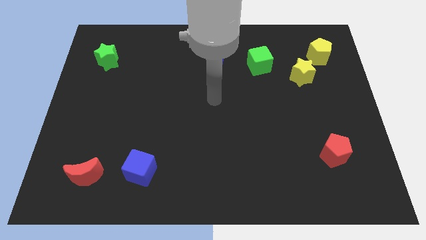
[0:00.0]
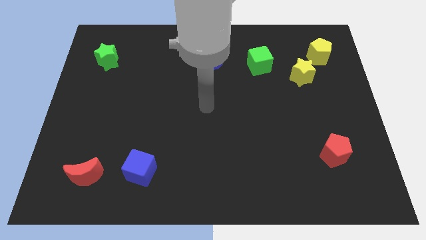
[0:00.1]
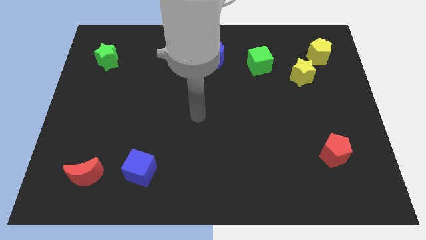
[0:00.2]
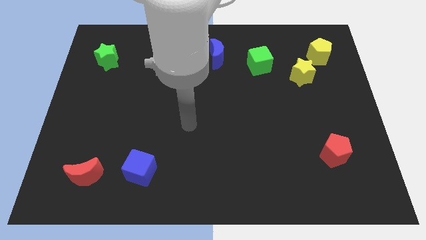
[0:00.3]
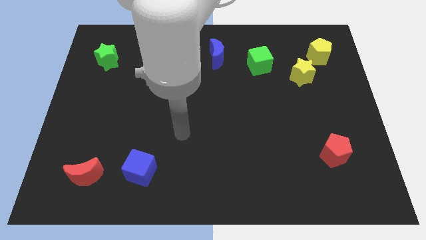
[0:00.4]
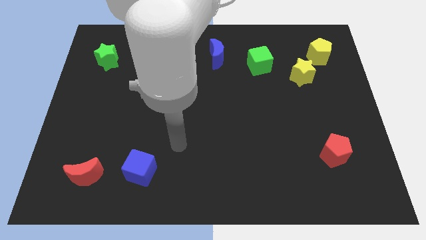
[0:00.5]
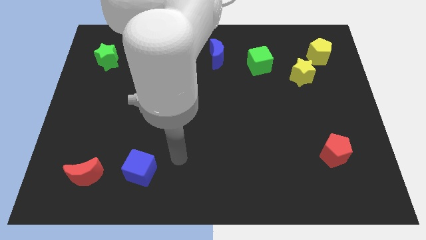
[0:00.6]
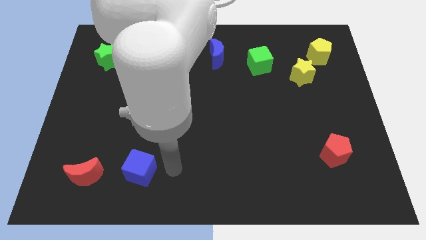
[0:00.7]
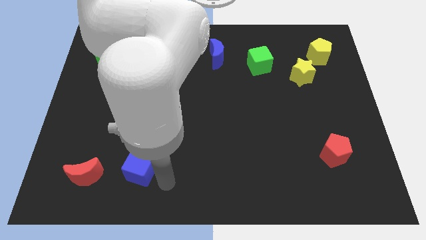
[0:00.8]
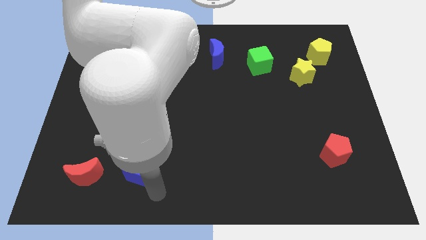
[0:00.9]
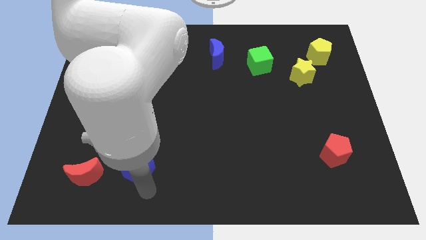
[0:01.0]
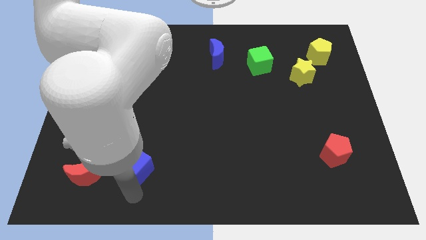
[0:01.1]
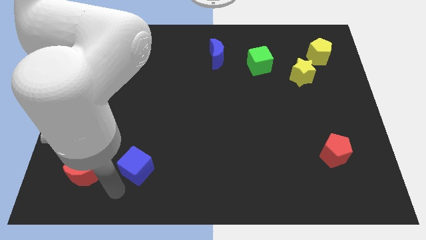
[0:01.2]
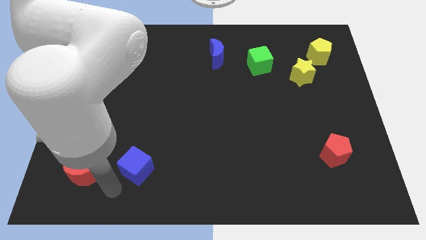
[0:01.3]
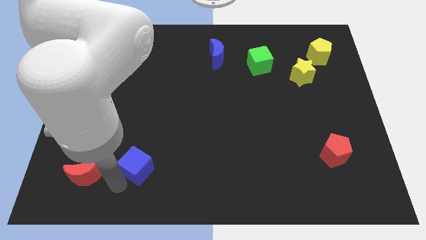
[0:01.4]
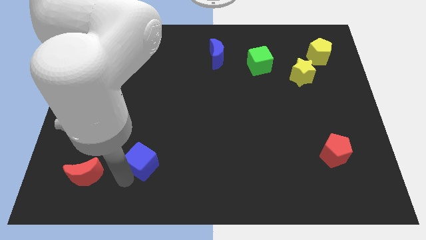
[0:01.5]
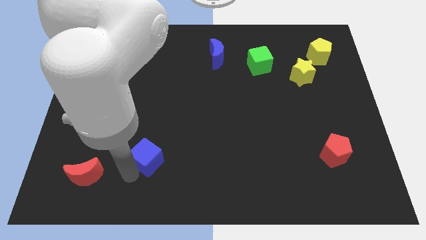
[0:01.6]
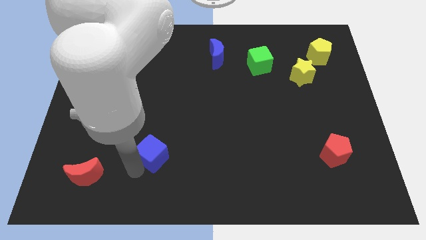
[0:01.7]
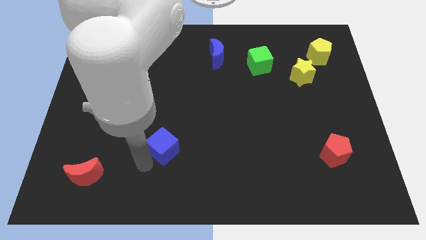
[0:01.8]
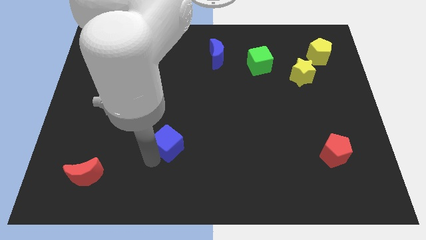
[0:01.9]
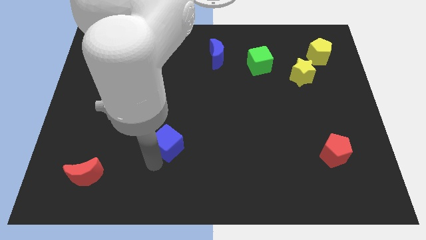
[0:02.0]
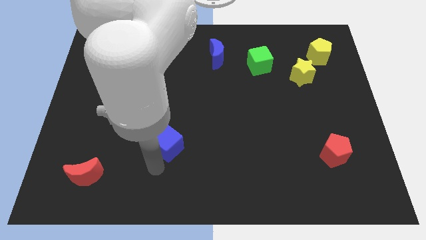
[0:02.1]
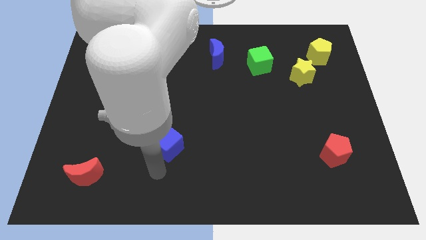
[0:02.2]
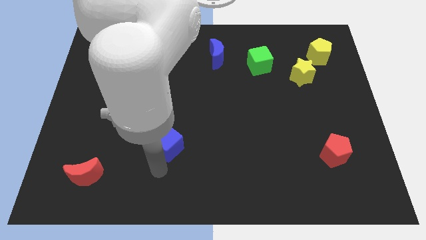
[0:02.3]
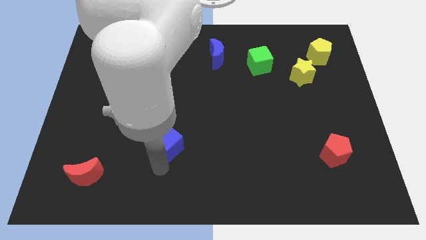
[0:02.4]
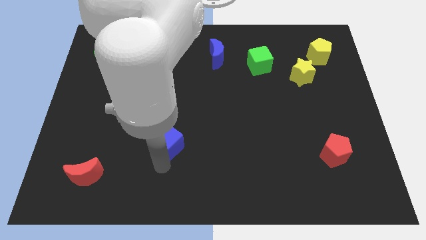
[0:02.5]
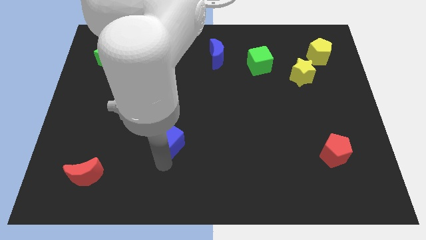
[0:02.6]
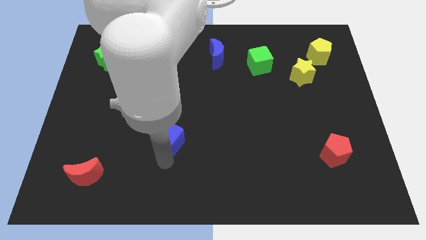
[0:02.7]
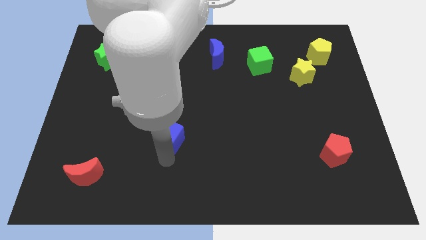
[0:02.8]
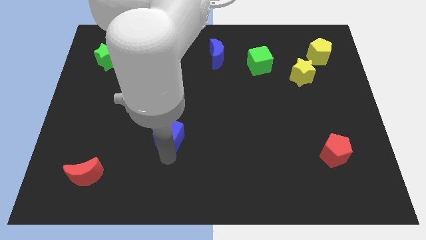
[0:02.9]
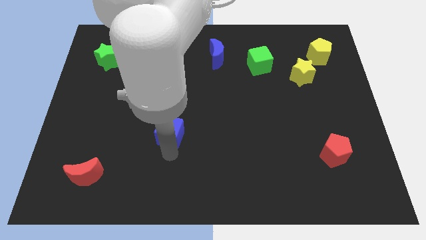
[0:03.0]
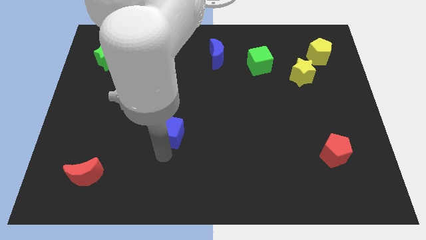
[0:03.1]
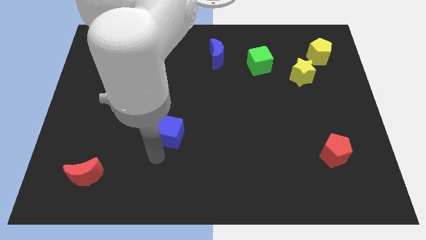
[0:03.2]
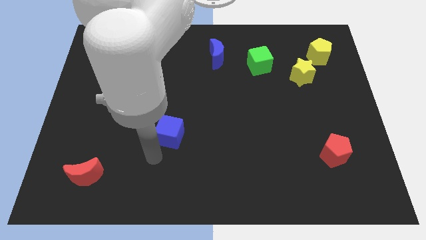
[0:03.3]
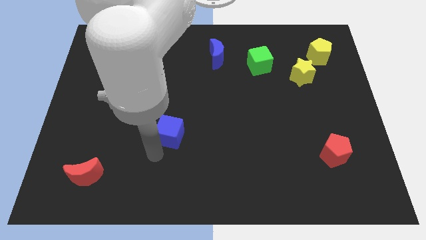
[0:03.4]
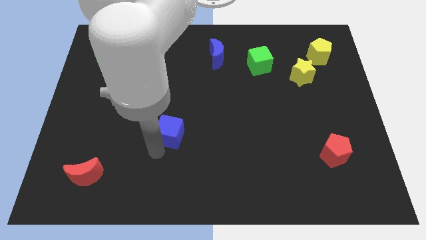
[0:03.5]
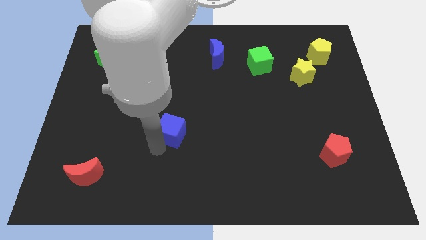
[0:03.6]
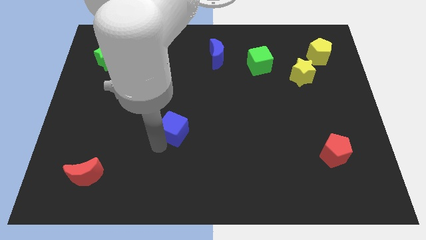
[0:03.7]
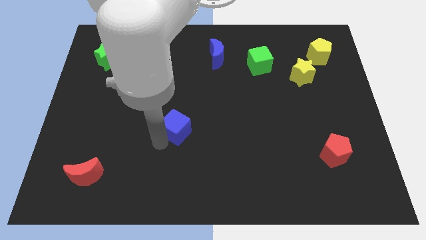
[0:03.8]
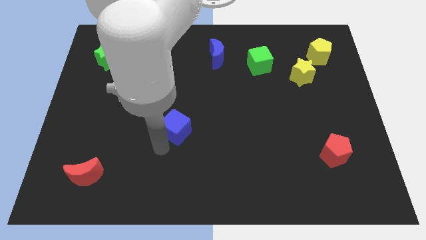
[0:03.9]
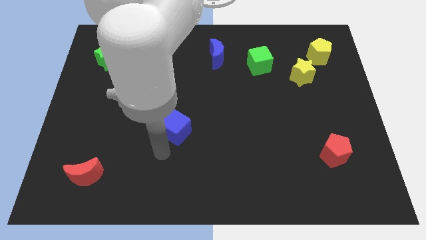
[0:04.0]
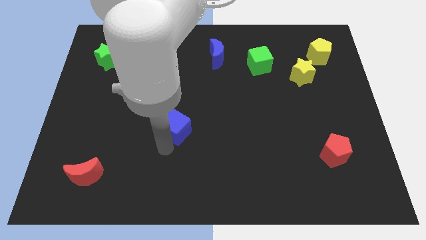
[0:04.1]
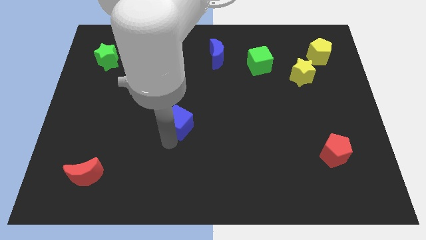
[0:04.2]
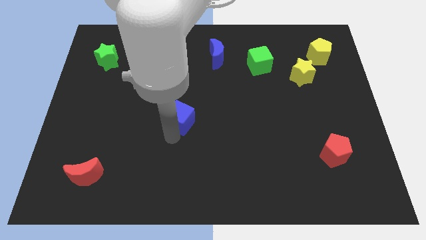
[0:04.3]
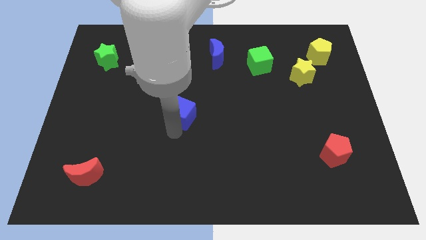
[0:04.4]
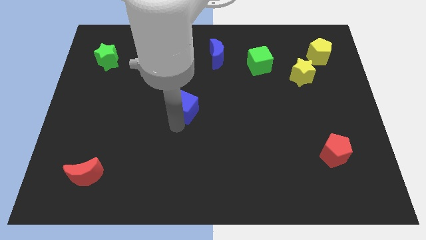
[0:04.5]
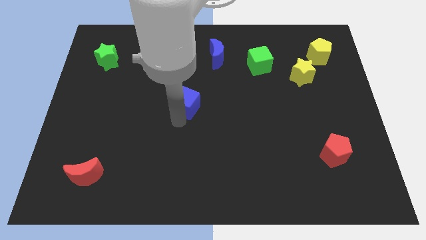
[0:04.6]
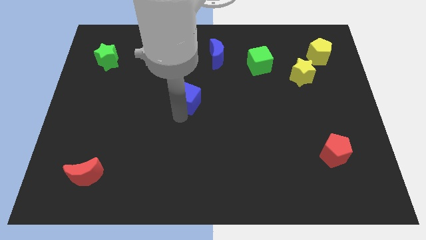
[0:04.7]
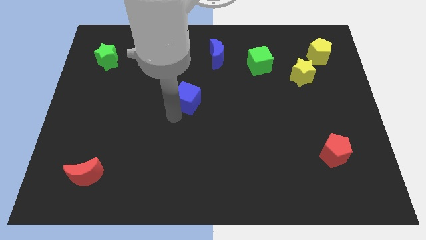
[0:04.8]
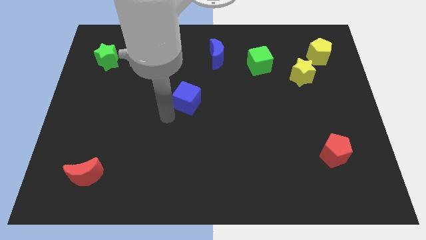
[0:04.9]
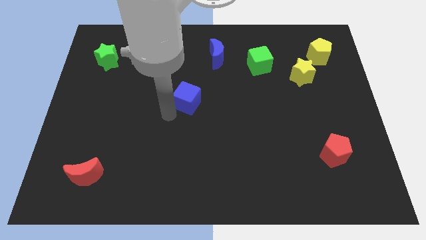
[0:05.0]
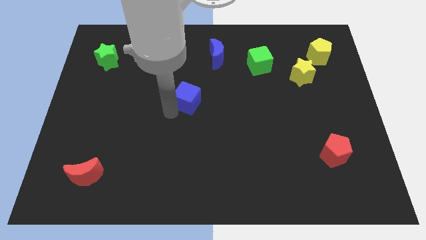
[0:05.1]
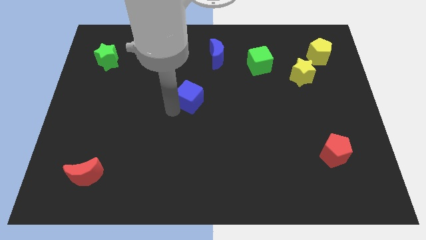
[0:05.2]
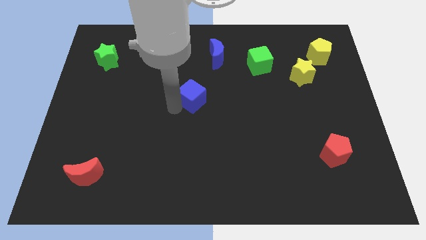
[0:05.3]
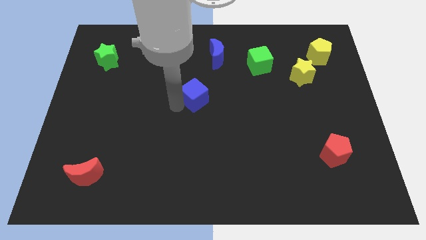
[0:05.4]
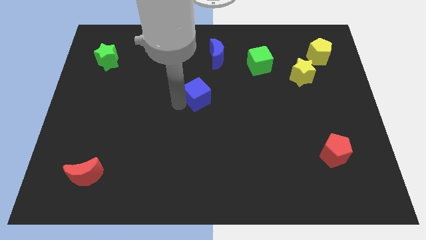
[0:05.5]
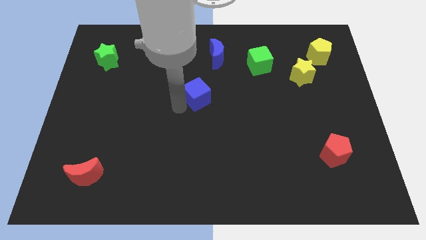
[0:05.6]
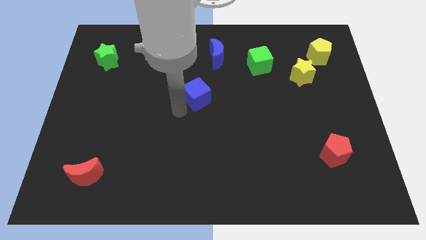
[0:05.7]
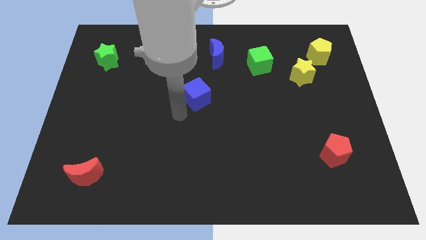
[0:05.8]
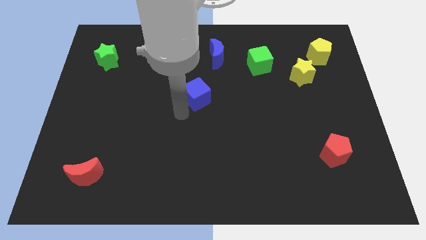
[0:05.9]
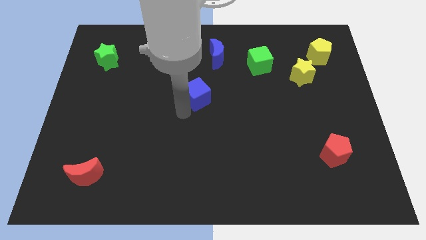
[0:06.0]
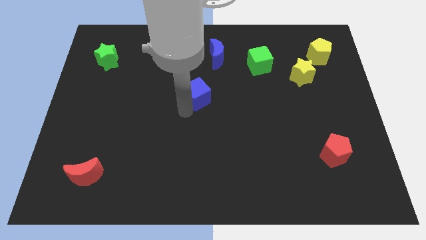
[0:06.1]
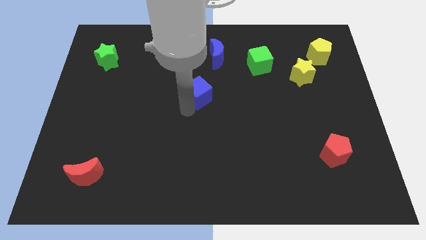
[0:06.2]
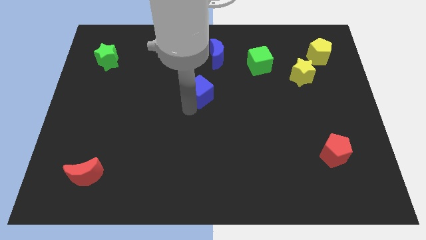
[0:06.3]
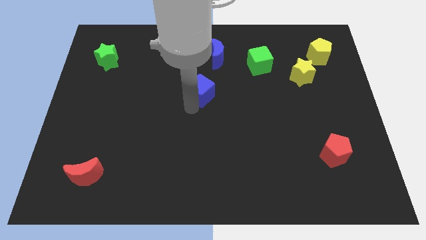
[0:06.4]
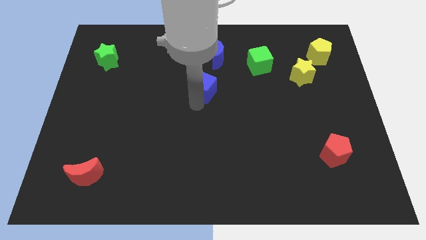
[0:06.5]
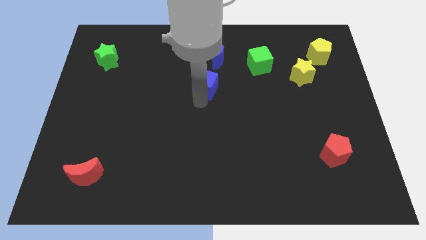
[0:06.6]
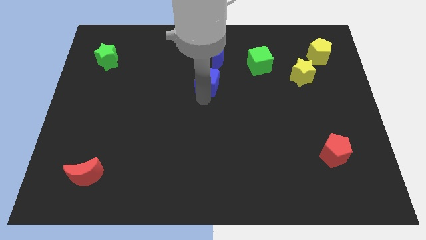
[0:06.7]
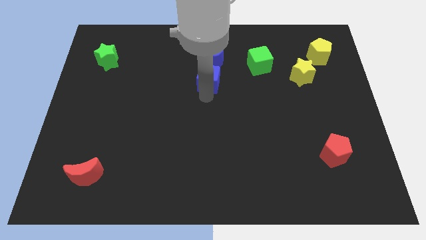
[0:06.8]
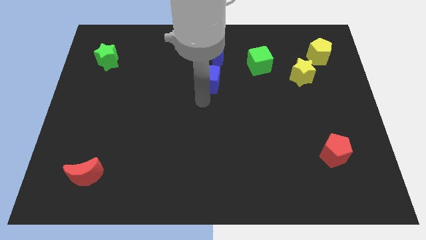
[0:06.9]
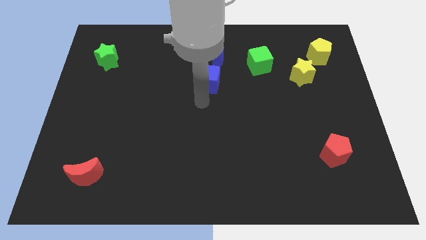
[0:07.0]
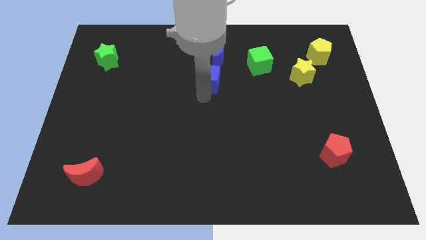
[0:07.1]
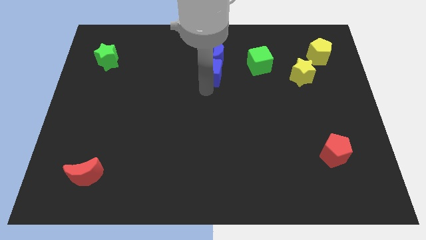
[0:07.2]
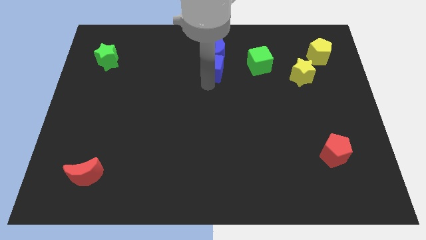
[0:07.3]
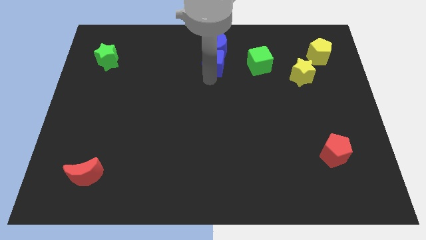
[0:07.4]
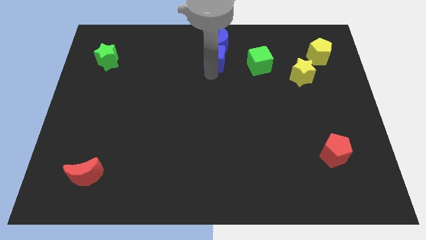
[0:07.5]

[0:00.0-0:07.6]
slide the blue cube towards the blue moon

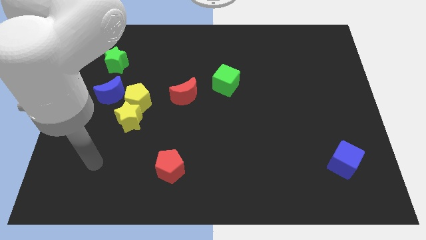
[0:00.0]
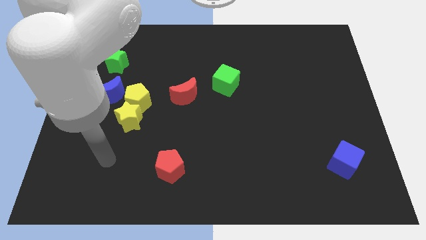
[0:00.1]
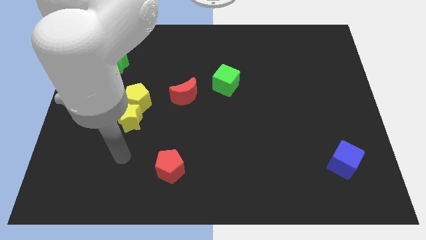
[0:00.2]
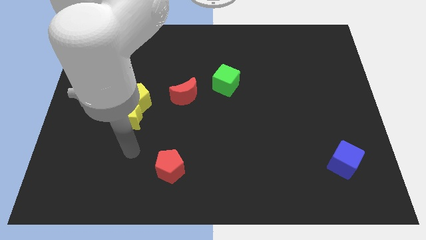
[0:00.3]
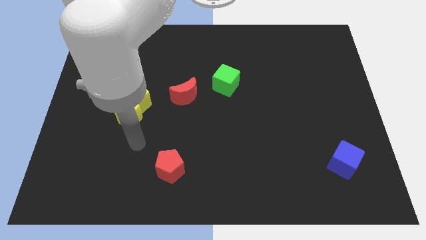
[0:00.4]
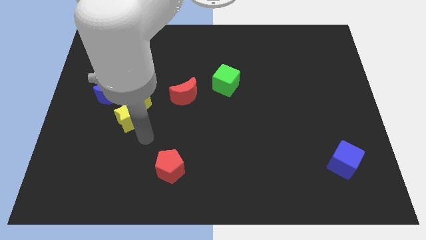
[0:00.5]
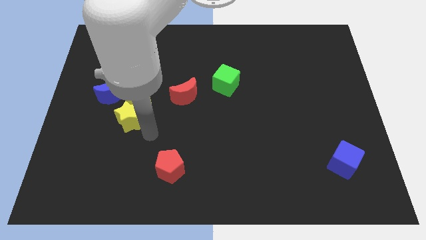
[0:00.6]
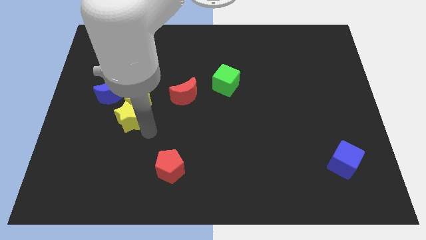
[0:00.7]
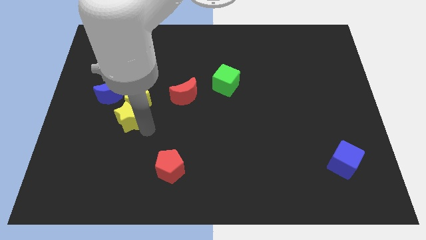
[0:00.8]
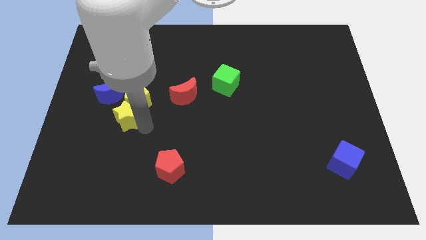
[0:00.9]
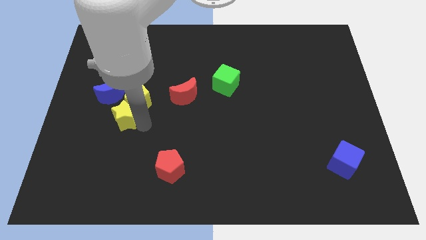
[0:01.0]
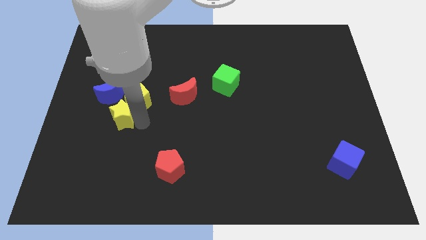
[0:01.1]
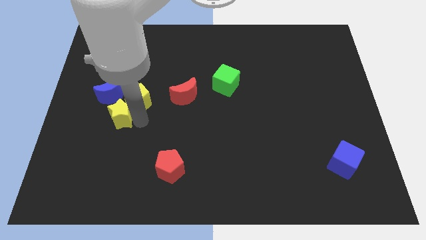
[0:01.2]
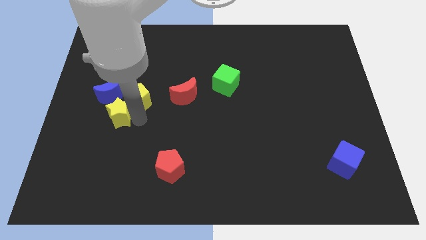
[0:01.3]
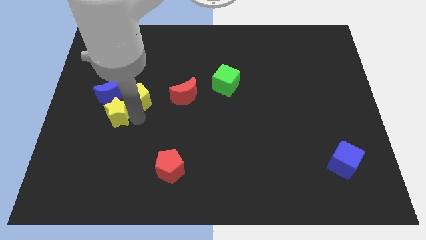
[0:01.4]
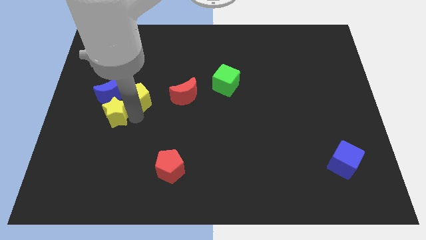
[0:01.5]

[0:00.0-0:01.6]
slide the yellow star towards the blue moon
